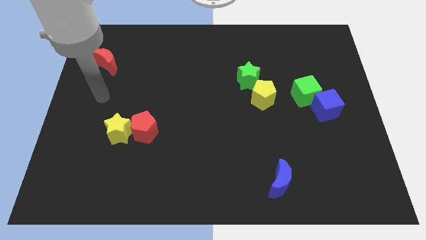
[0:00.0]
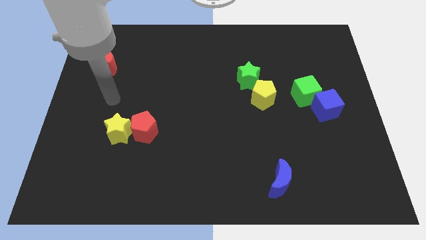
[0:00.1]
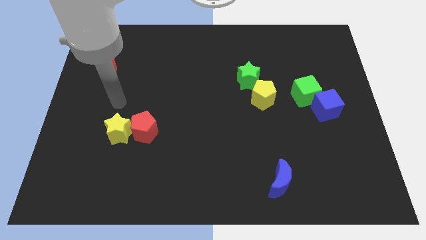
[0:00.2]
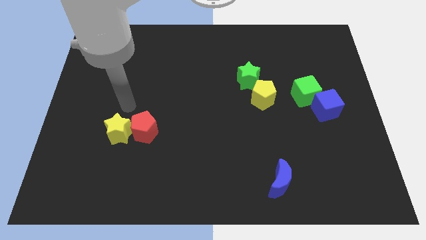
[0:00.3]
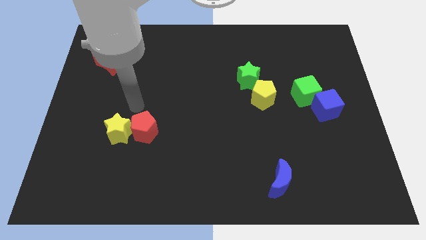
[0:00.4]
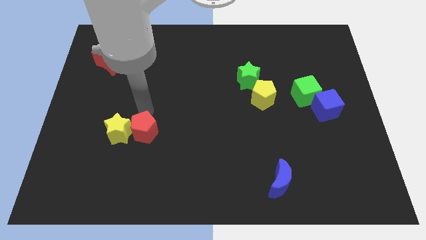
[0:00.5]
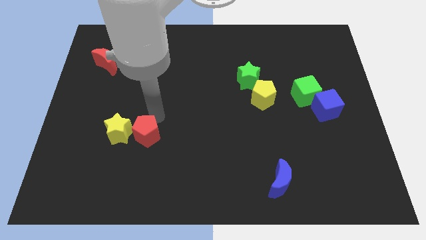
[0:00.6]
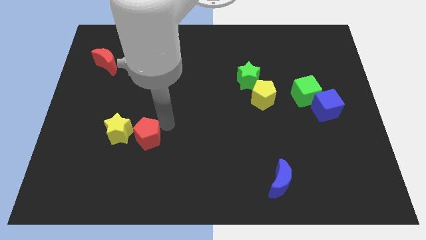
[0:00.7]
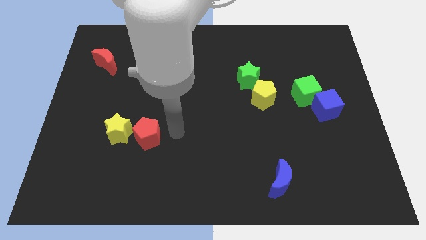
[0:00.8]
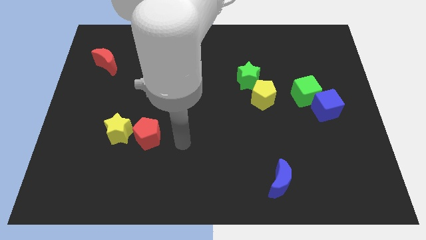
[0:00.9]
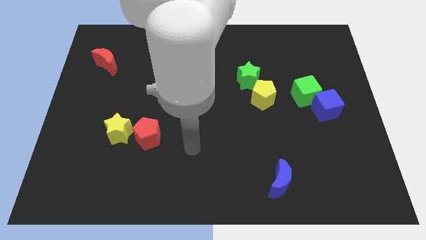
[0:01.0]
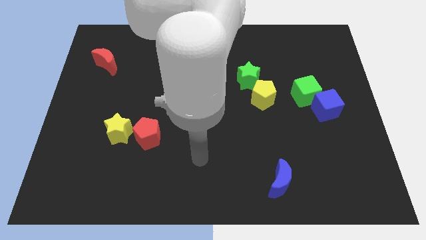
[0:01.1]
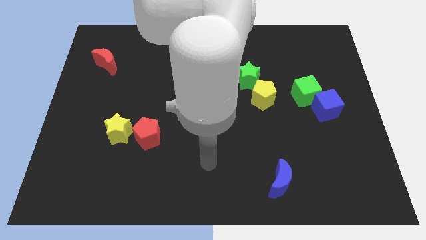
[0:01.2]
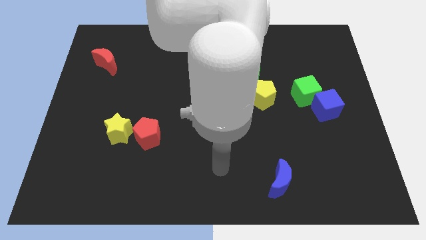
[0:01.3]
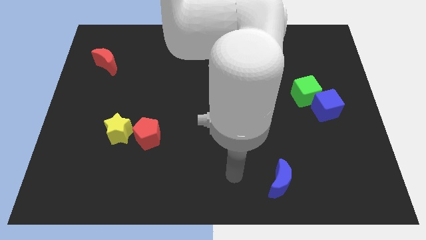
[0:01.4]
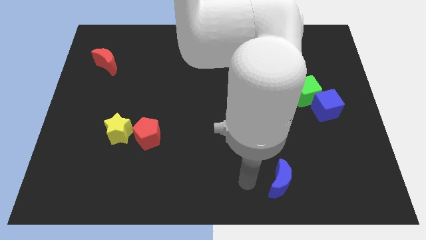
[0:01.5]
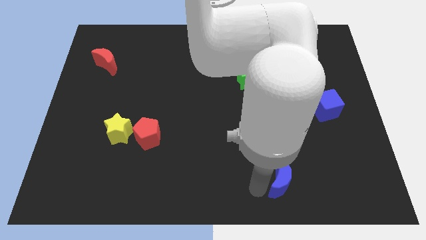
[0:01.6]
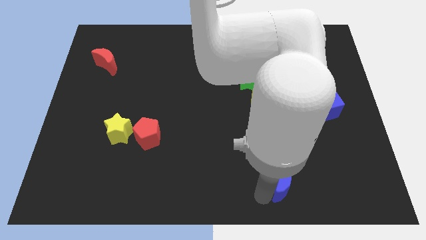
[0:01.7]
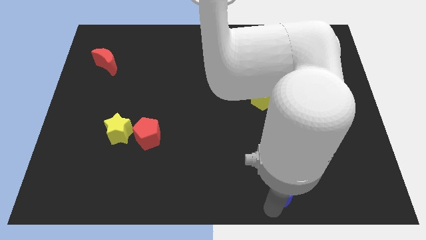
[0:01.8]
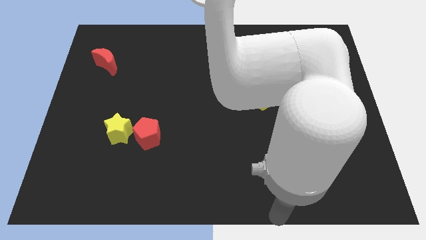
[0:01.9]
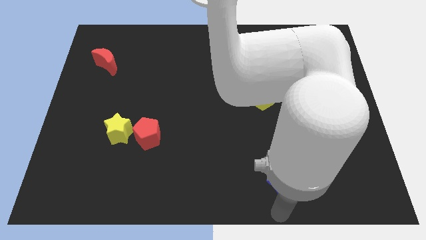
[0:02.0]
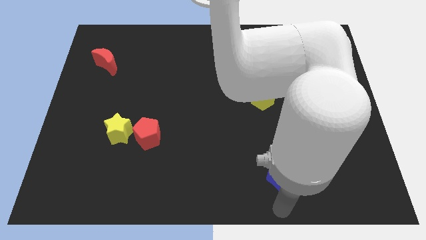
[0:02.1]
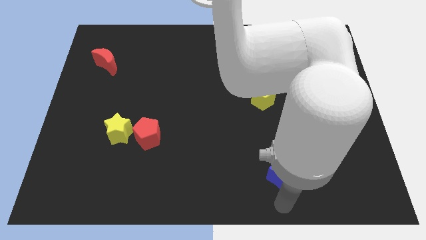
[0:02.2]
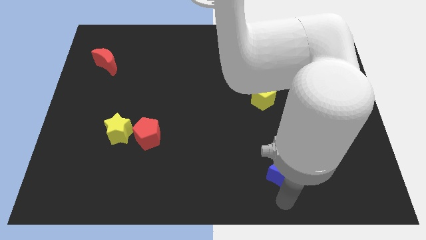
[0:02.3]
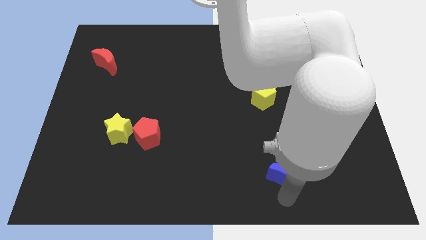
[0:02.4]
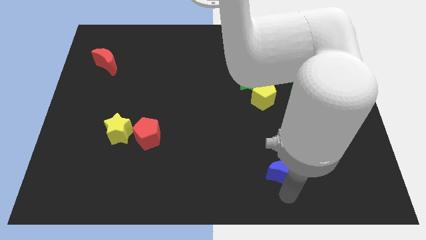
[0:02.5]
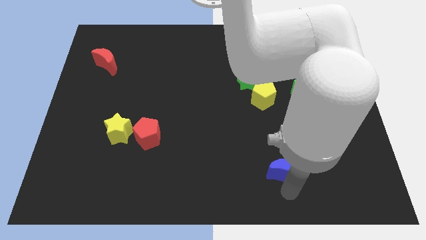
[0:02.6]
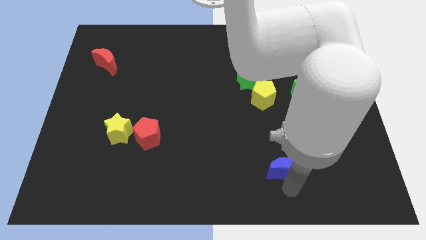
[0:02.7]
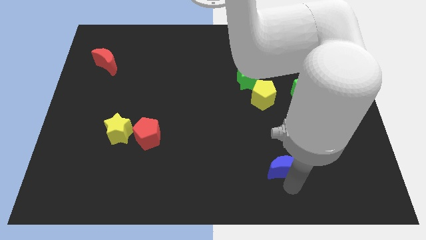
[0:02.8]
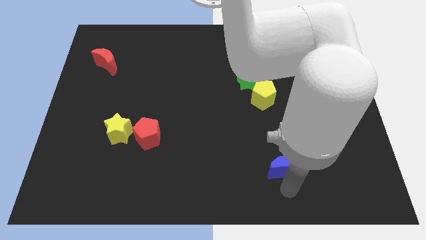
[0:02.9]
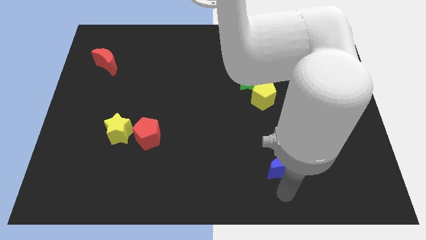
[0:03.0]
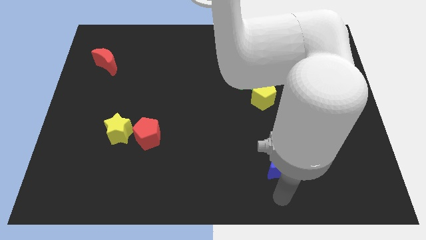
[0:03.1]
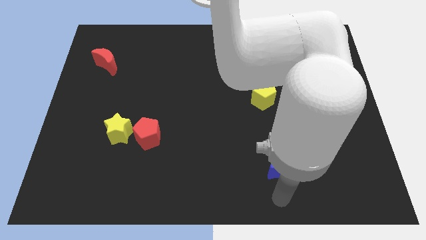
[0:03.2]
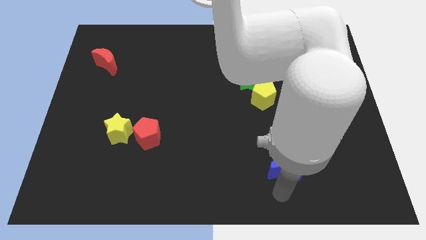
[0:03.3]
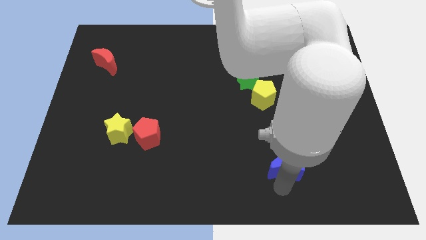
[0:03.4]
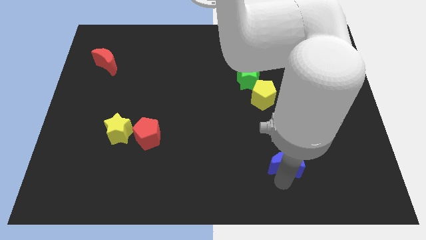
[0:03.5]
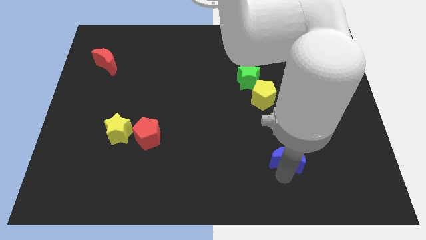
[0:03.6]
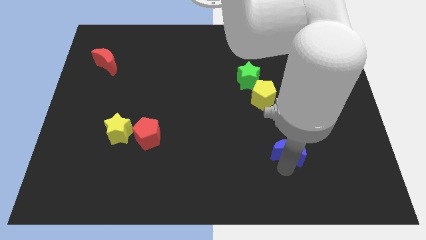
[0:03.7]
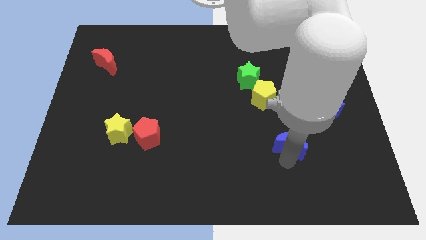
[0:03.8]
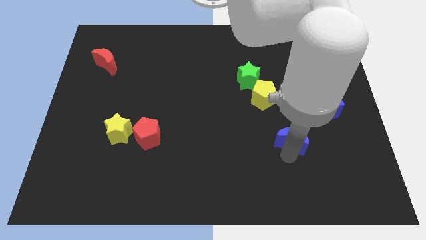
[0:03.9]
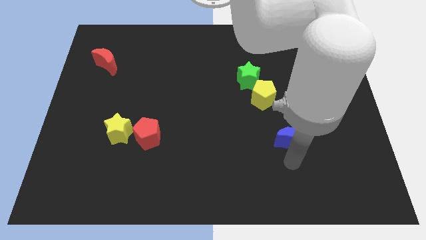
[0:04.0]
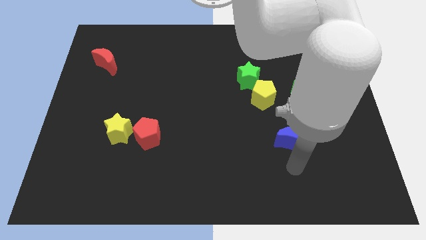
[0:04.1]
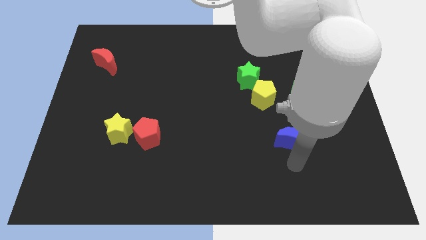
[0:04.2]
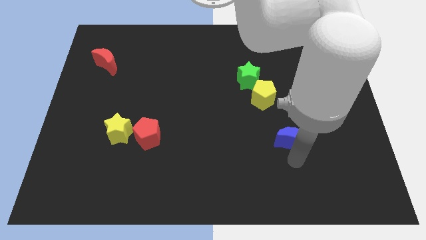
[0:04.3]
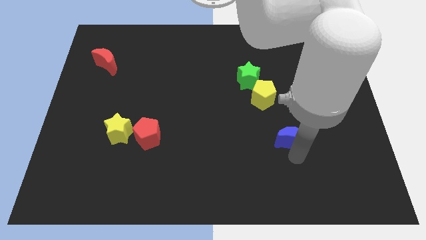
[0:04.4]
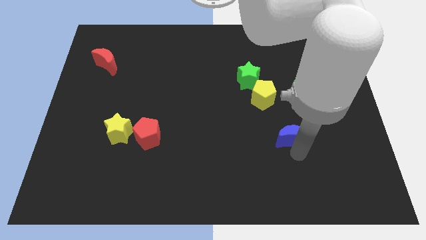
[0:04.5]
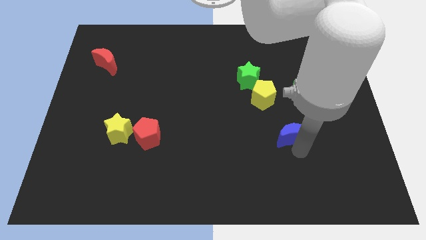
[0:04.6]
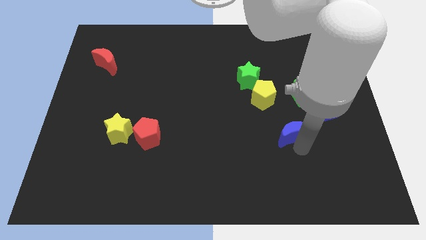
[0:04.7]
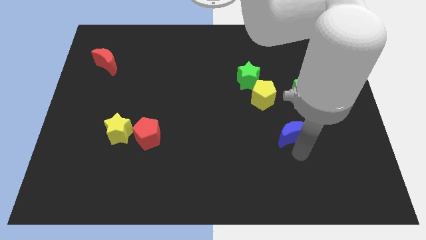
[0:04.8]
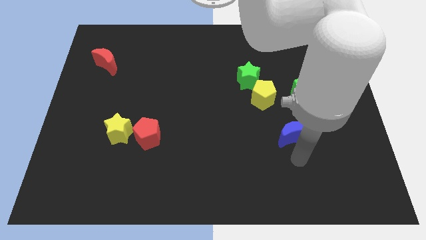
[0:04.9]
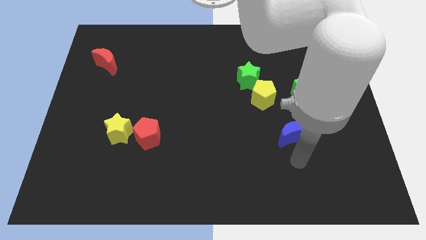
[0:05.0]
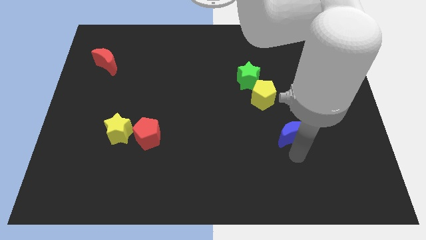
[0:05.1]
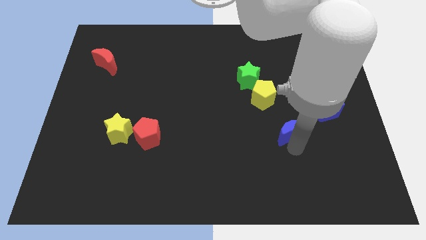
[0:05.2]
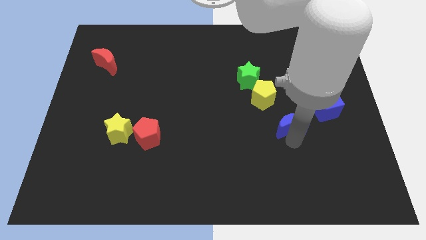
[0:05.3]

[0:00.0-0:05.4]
put the blue moon to the bottom left side of the green cube

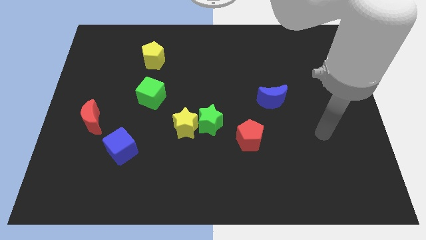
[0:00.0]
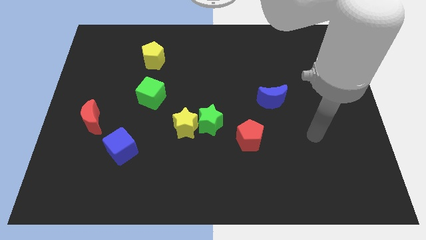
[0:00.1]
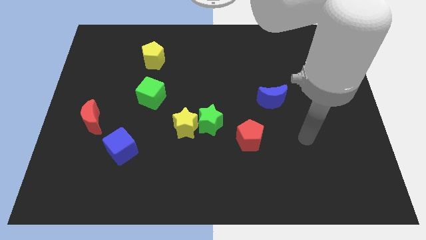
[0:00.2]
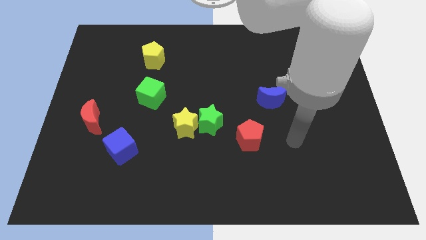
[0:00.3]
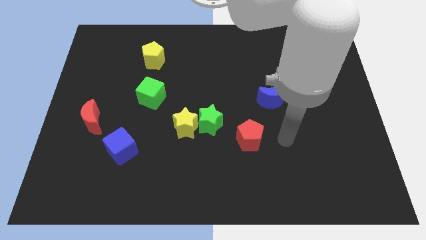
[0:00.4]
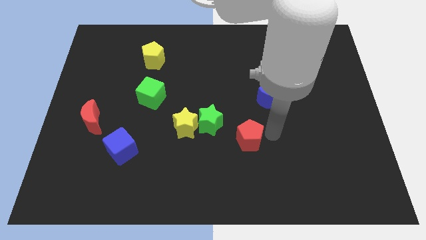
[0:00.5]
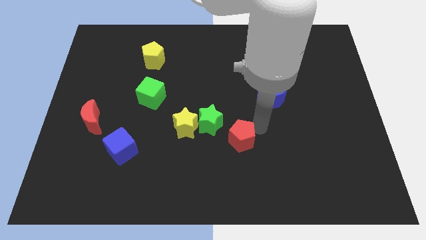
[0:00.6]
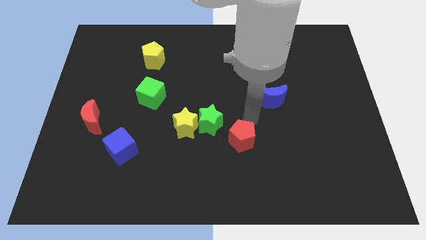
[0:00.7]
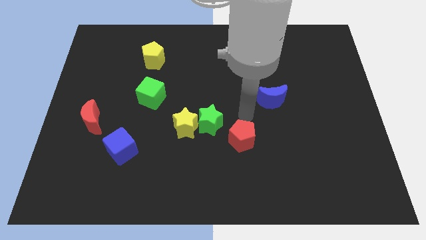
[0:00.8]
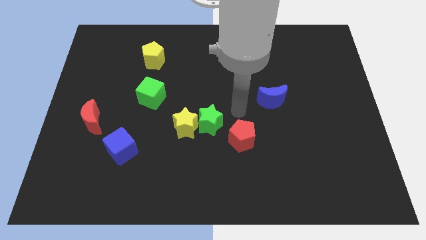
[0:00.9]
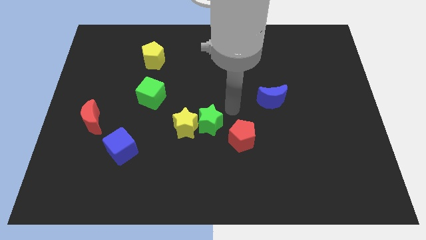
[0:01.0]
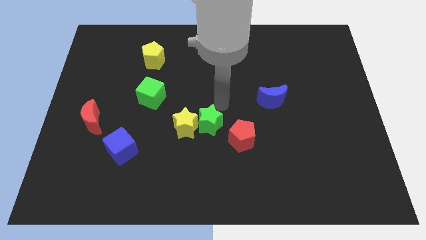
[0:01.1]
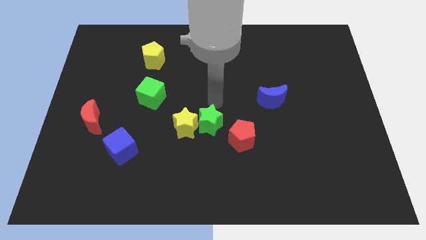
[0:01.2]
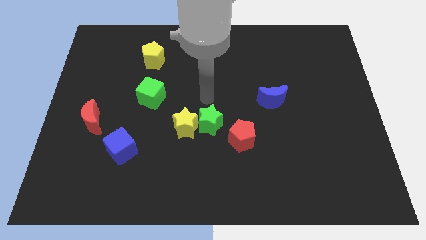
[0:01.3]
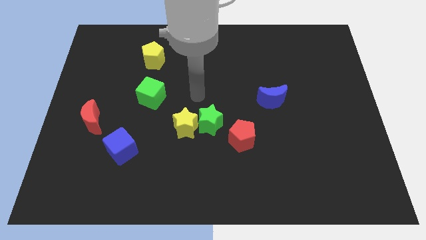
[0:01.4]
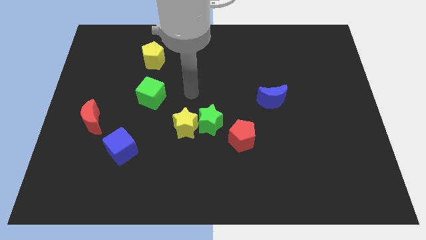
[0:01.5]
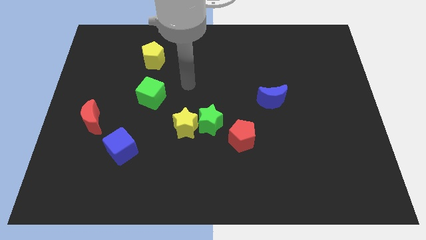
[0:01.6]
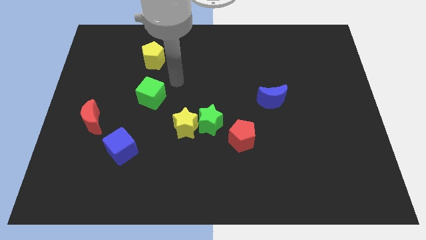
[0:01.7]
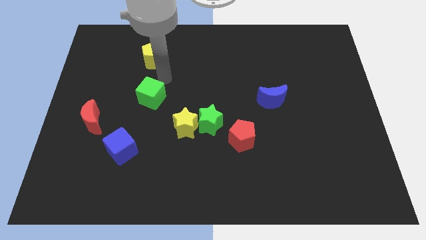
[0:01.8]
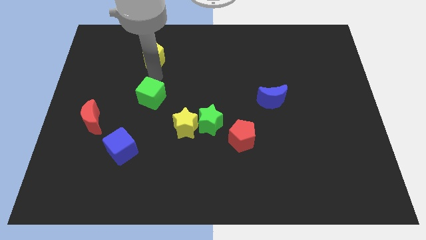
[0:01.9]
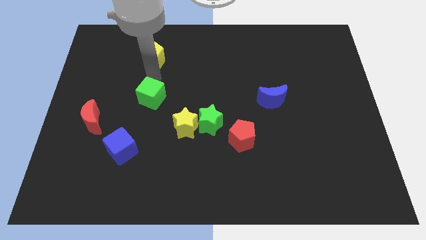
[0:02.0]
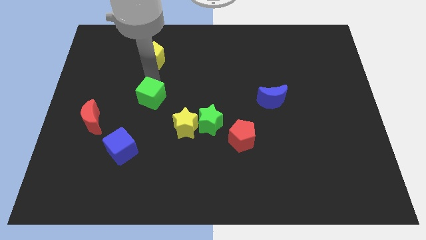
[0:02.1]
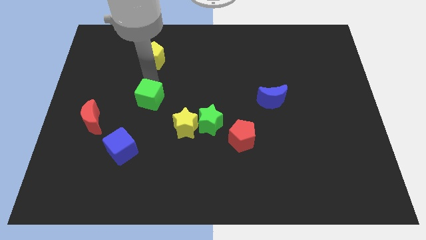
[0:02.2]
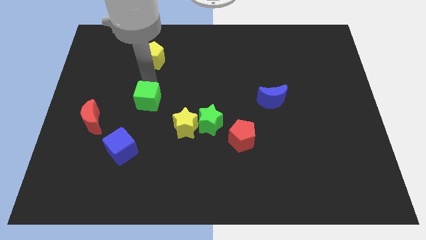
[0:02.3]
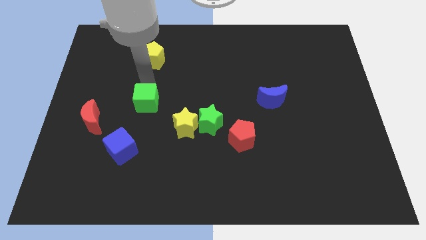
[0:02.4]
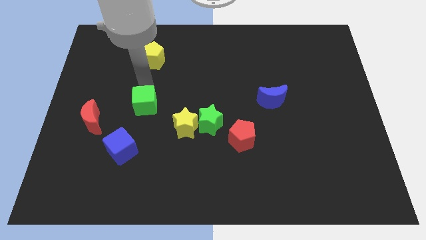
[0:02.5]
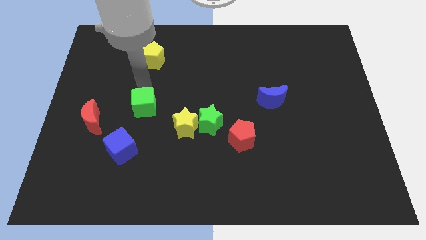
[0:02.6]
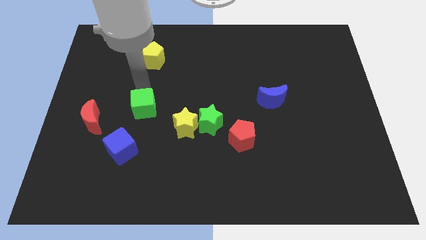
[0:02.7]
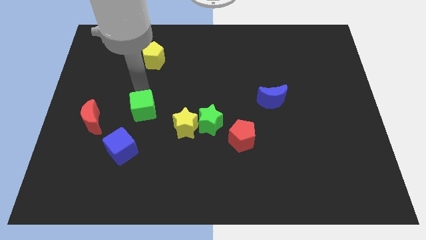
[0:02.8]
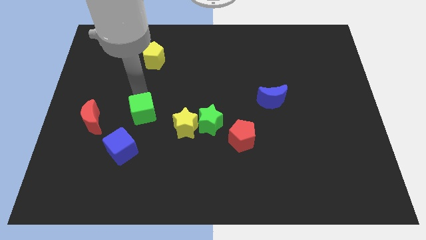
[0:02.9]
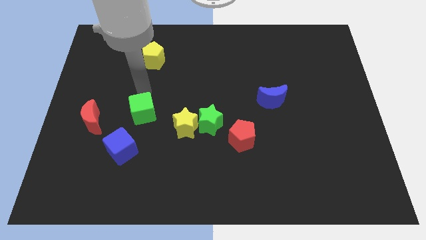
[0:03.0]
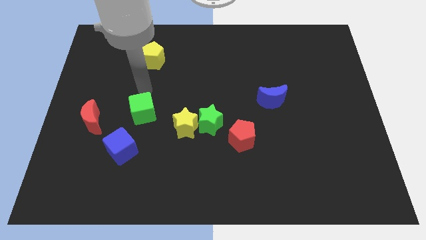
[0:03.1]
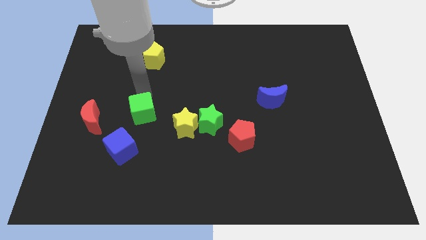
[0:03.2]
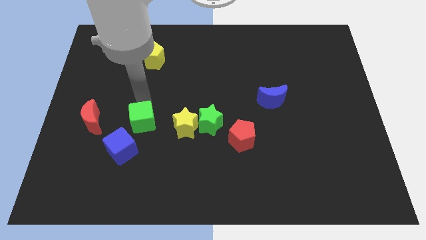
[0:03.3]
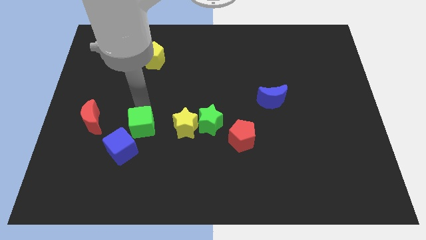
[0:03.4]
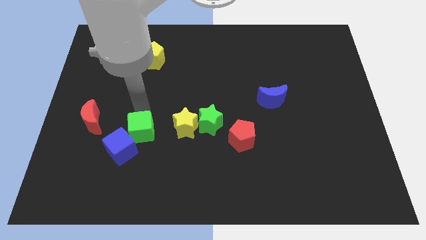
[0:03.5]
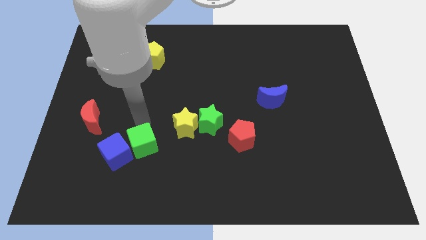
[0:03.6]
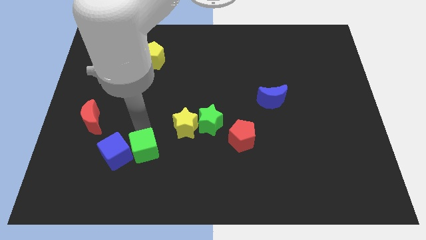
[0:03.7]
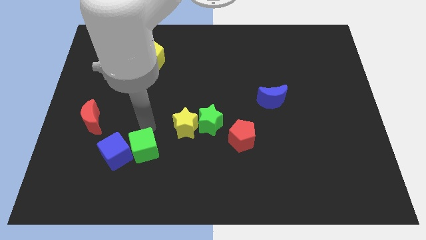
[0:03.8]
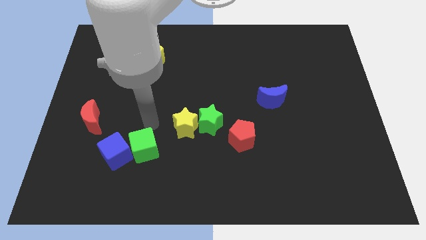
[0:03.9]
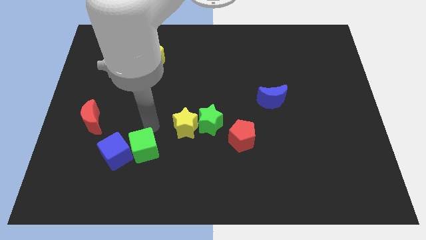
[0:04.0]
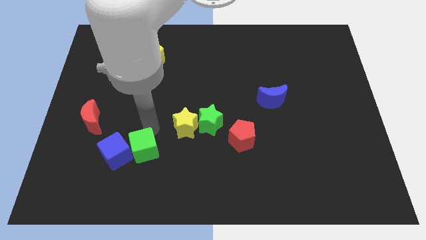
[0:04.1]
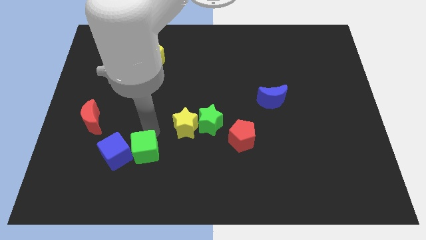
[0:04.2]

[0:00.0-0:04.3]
put the green cube to the bottom right side of the blue cube
